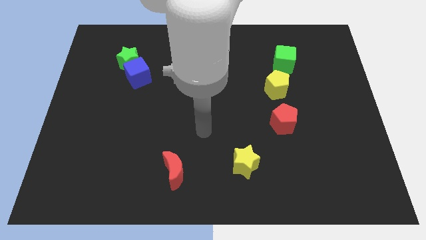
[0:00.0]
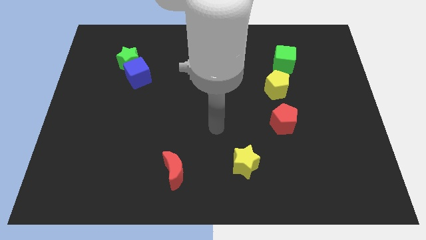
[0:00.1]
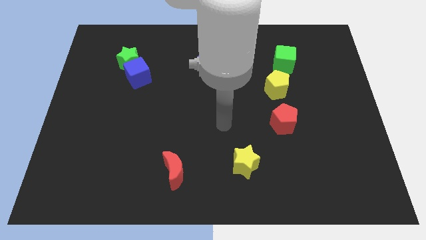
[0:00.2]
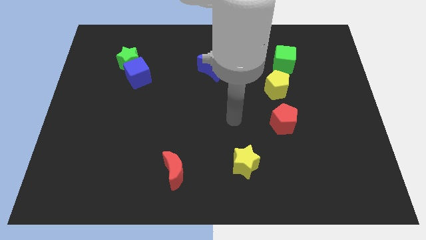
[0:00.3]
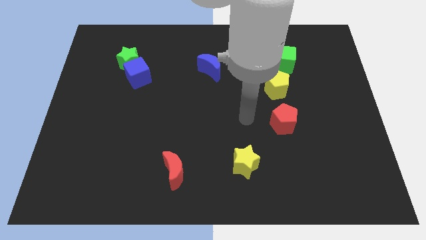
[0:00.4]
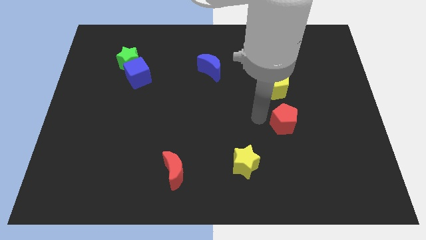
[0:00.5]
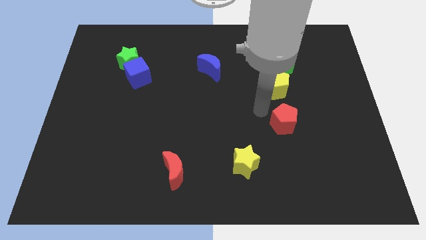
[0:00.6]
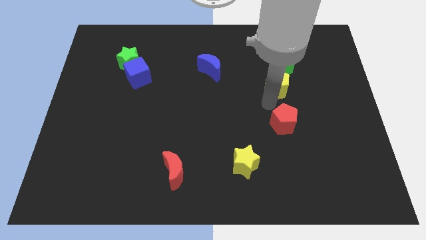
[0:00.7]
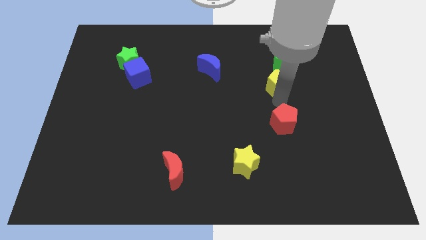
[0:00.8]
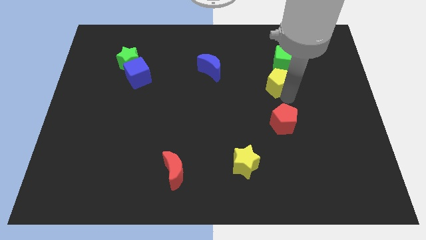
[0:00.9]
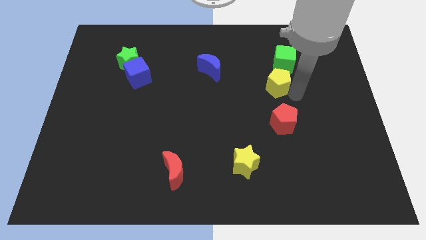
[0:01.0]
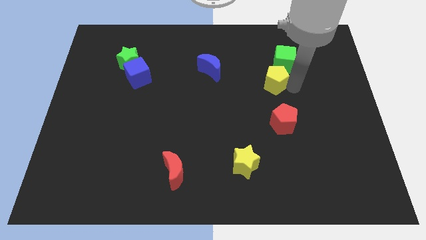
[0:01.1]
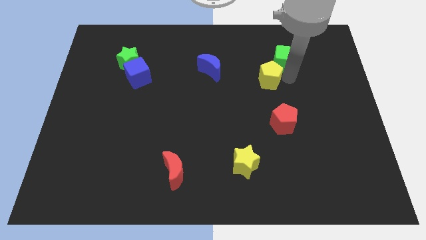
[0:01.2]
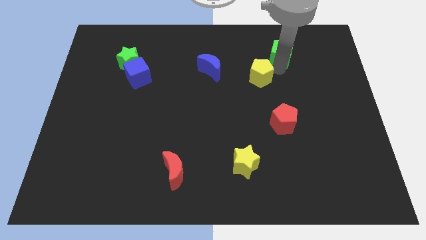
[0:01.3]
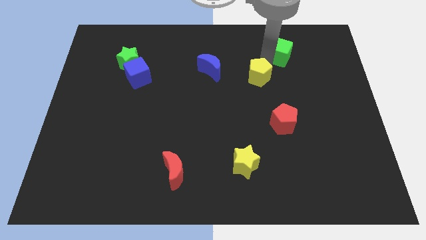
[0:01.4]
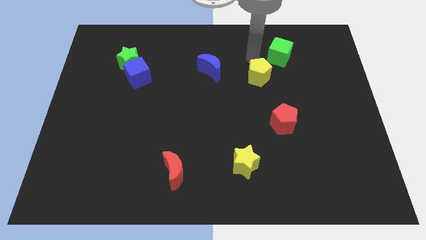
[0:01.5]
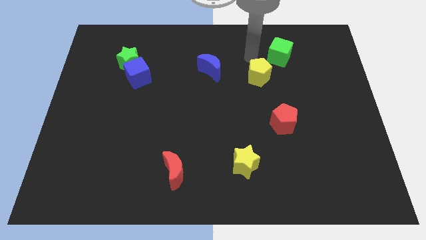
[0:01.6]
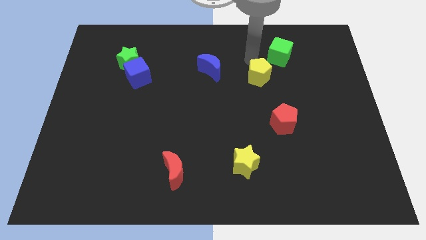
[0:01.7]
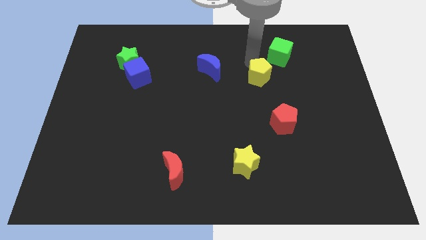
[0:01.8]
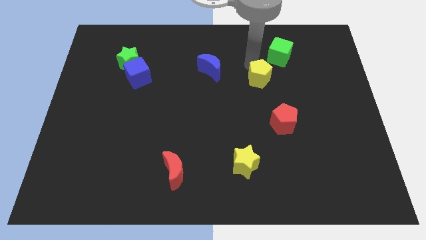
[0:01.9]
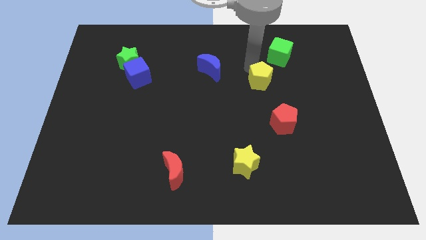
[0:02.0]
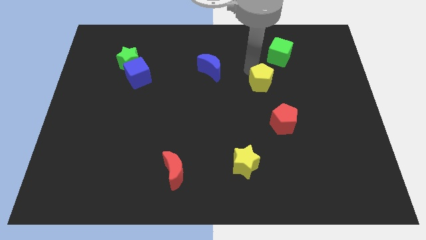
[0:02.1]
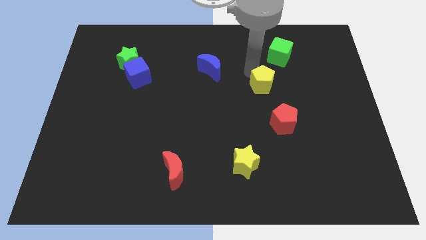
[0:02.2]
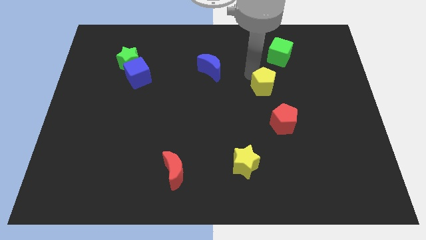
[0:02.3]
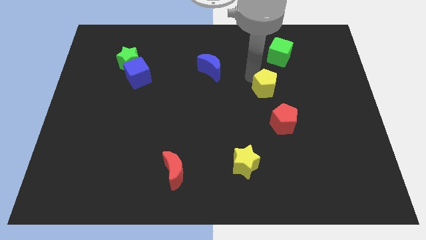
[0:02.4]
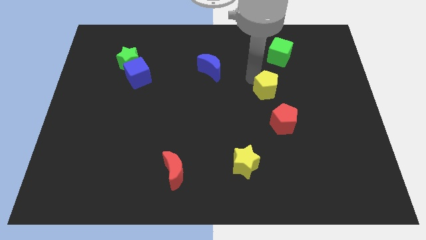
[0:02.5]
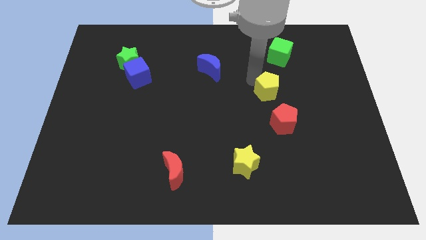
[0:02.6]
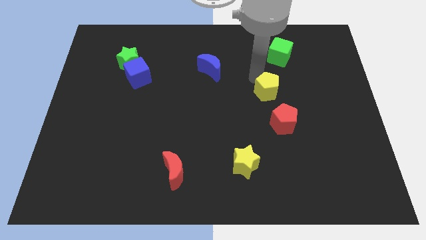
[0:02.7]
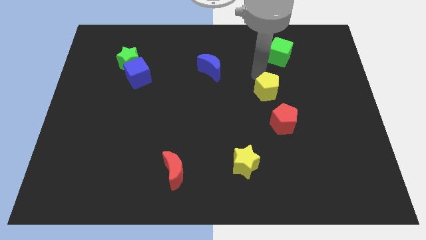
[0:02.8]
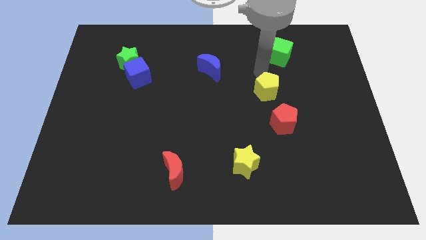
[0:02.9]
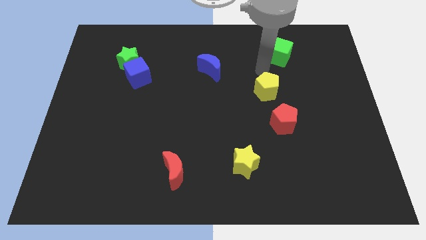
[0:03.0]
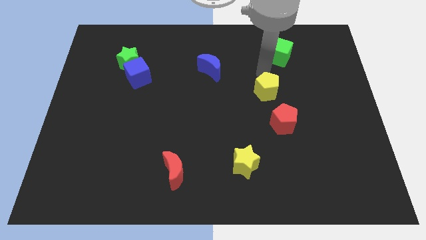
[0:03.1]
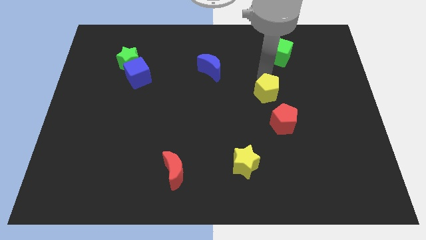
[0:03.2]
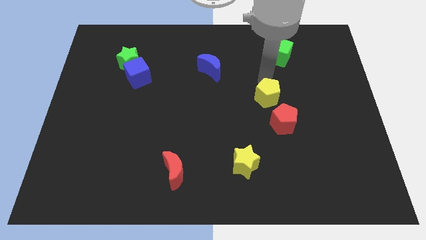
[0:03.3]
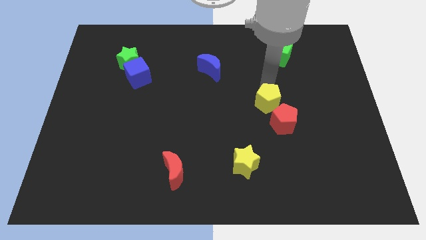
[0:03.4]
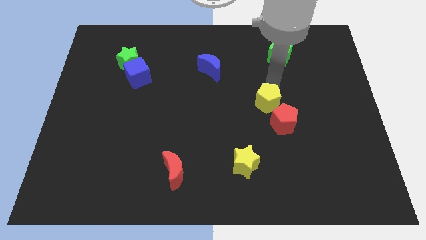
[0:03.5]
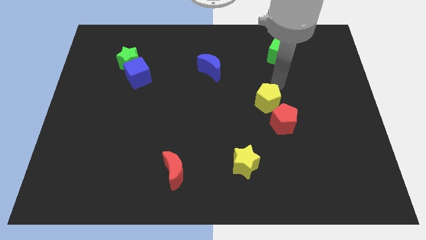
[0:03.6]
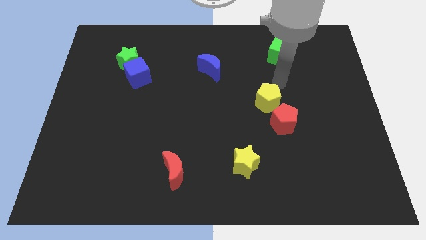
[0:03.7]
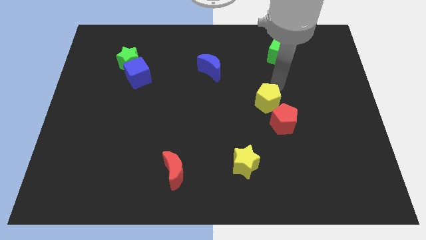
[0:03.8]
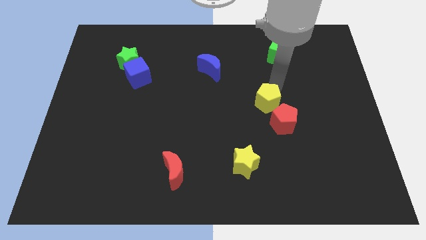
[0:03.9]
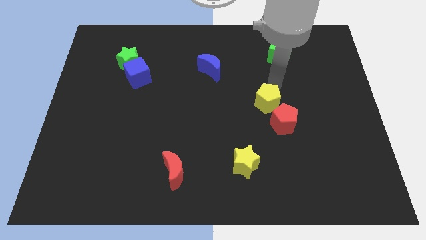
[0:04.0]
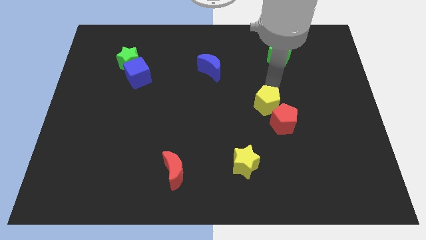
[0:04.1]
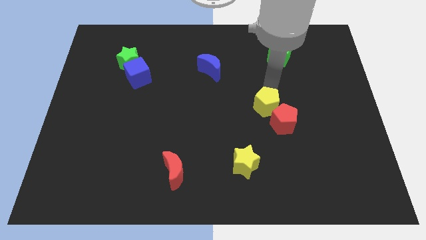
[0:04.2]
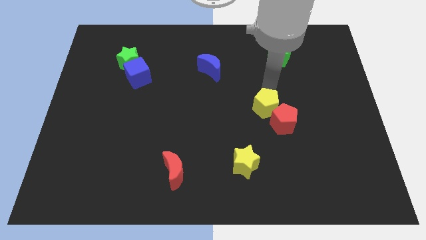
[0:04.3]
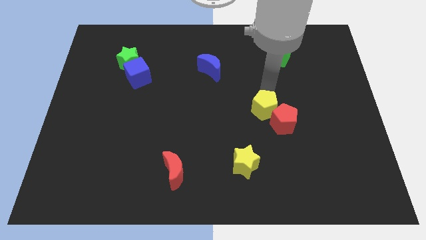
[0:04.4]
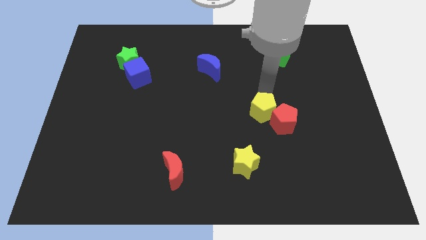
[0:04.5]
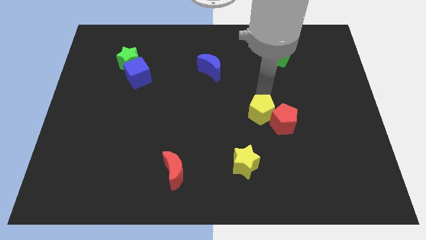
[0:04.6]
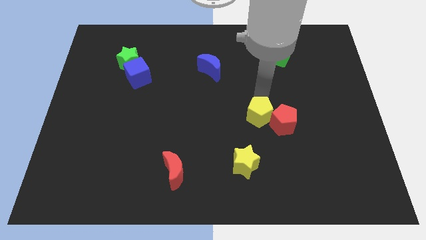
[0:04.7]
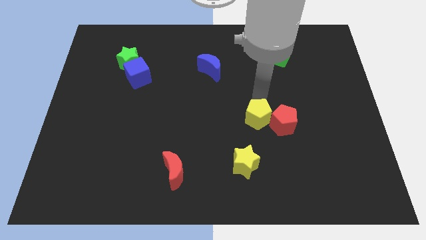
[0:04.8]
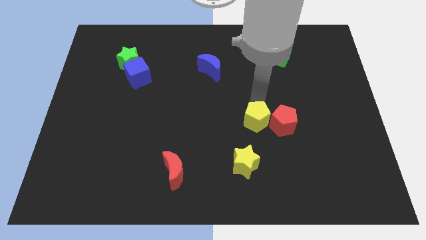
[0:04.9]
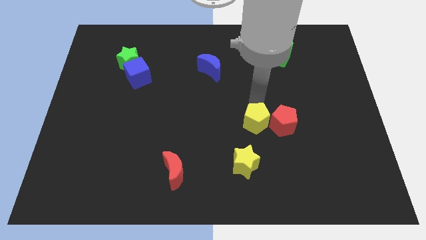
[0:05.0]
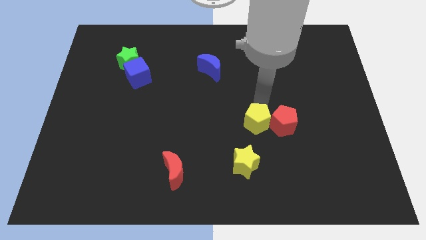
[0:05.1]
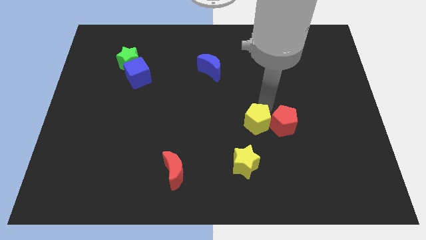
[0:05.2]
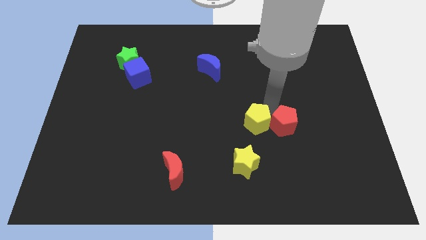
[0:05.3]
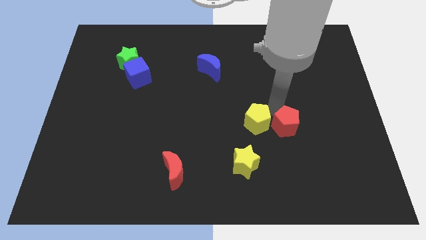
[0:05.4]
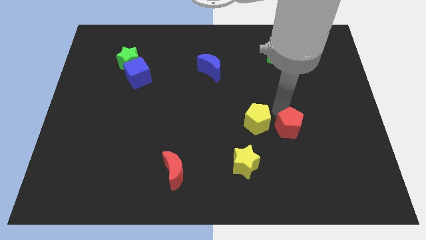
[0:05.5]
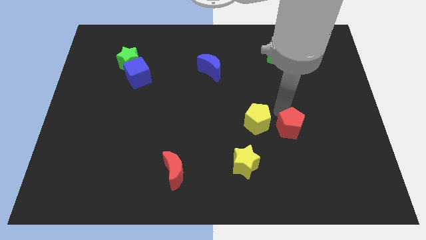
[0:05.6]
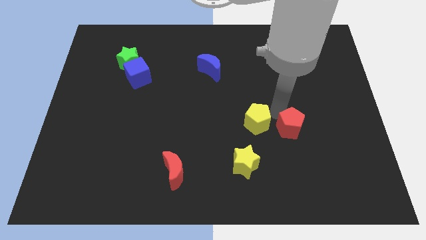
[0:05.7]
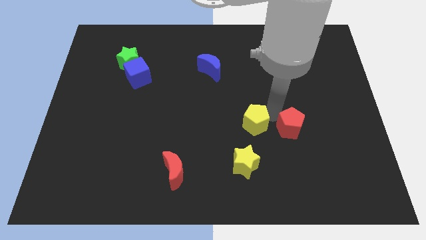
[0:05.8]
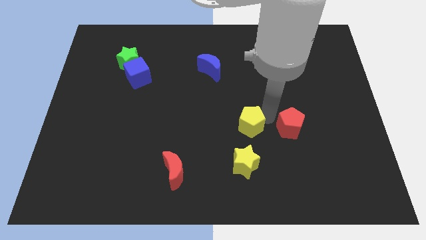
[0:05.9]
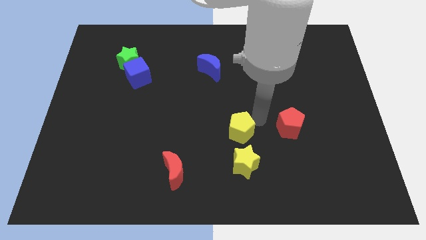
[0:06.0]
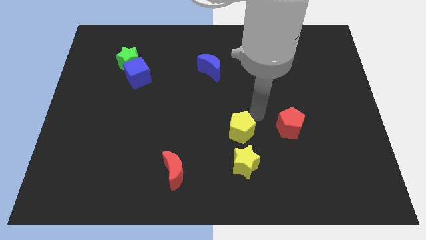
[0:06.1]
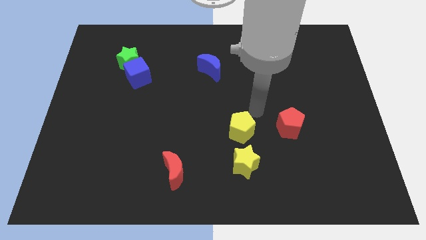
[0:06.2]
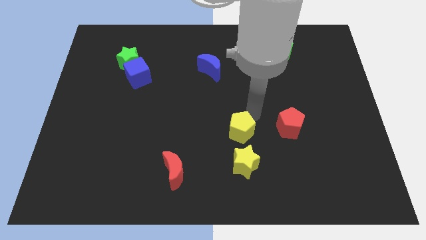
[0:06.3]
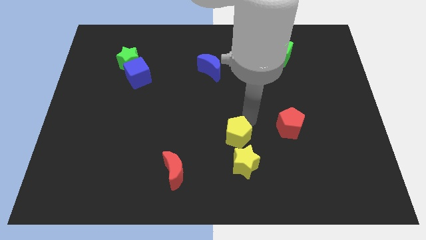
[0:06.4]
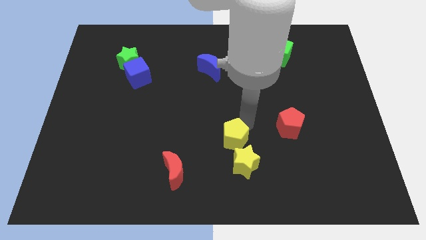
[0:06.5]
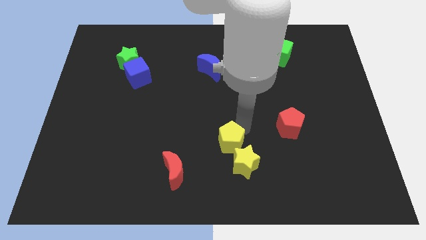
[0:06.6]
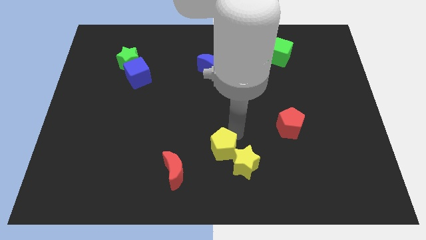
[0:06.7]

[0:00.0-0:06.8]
move the yellow pentagon to the left of the yellow star
